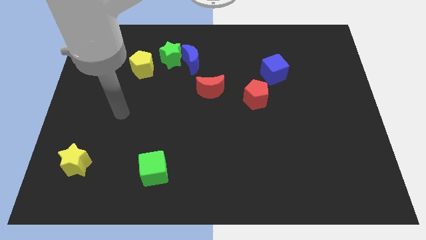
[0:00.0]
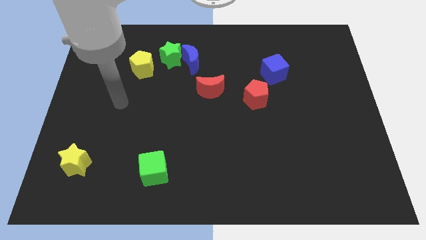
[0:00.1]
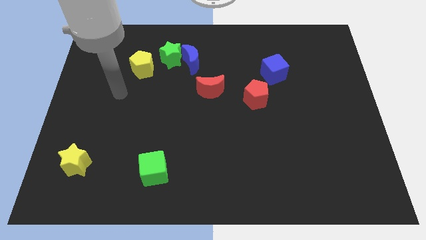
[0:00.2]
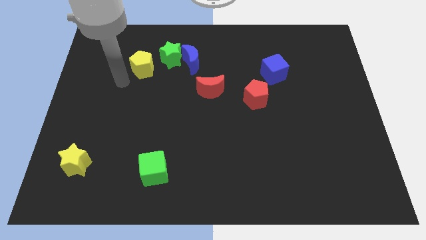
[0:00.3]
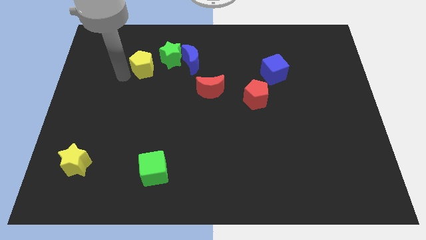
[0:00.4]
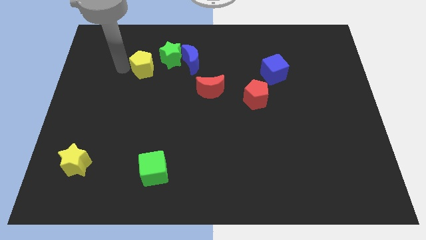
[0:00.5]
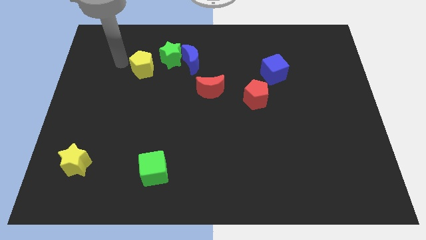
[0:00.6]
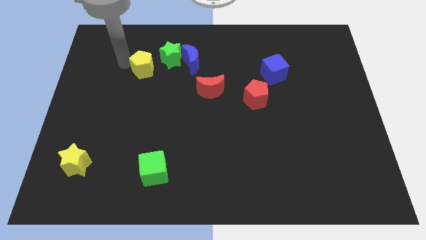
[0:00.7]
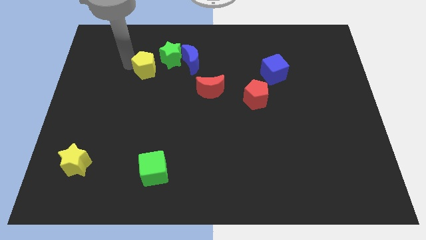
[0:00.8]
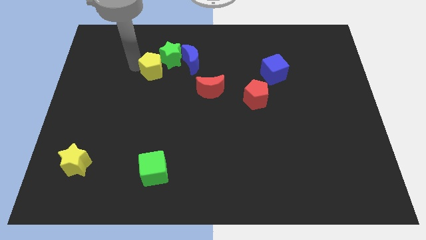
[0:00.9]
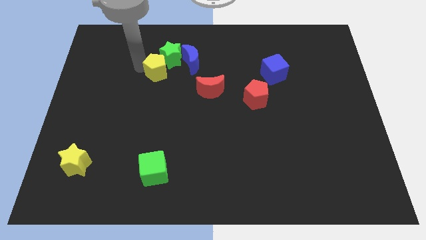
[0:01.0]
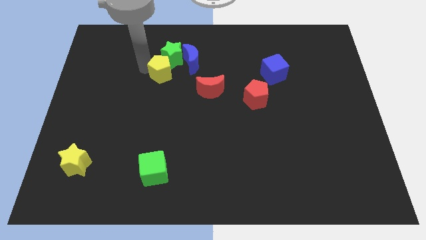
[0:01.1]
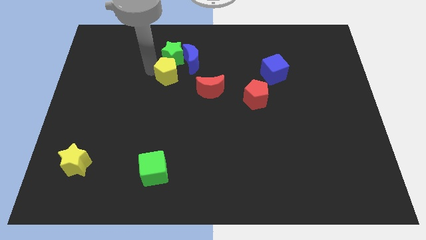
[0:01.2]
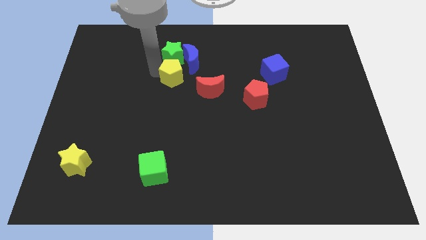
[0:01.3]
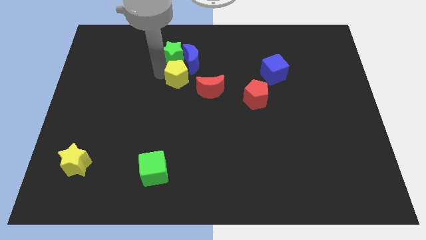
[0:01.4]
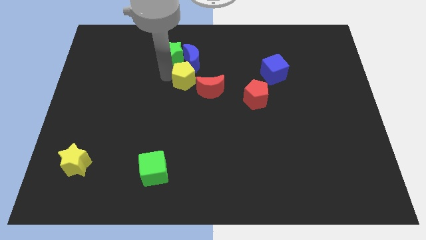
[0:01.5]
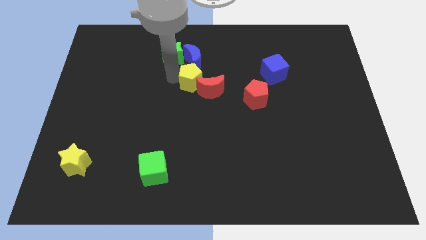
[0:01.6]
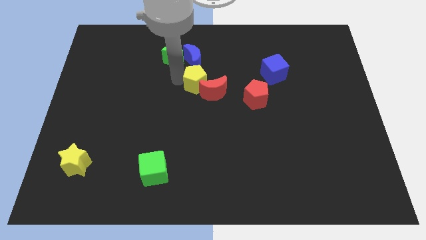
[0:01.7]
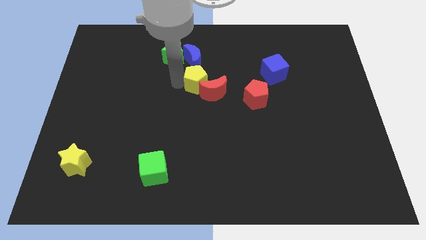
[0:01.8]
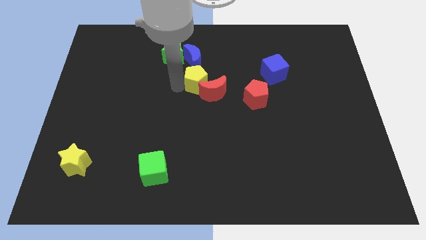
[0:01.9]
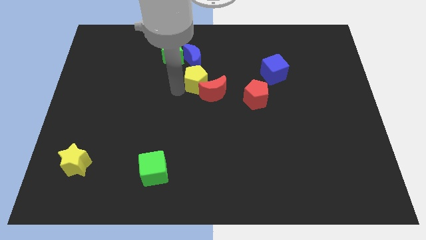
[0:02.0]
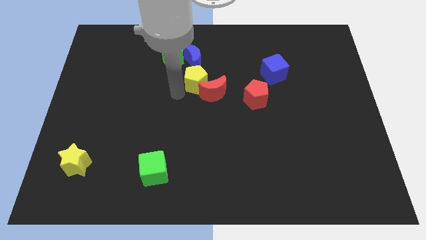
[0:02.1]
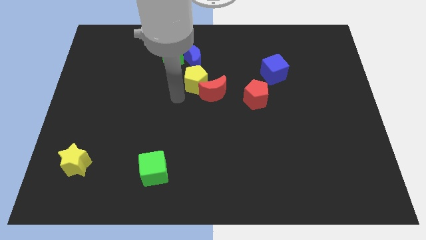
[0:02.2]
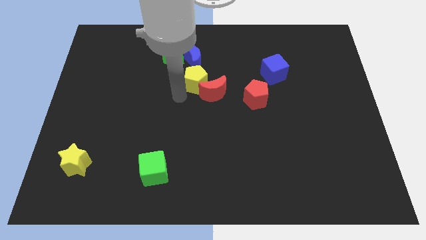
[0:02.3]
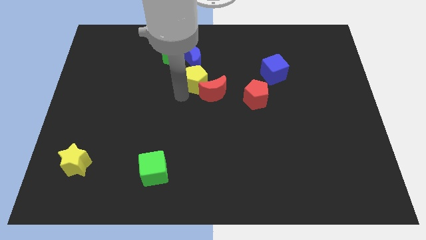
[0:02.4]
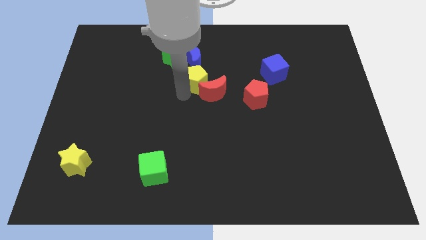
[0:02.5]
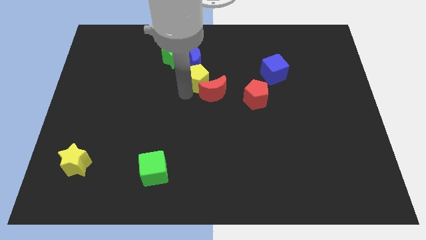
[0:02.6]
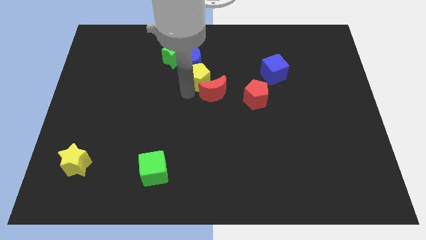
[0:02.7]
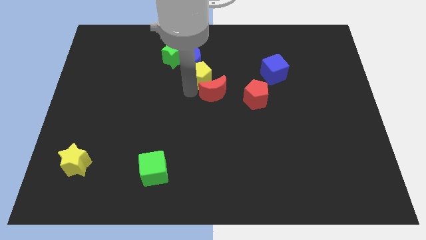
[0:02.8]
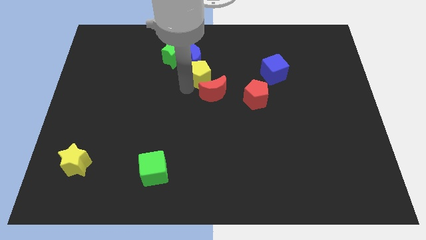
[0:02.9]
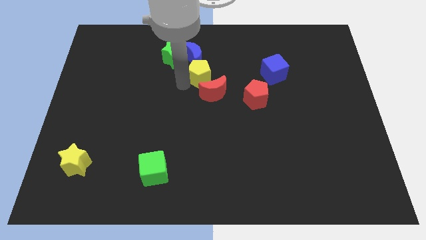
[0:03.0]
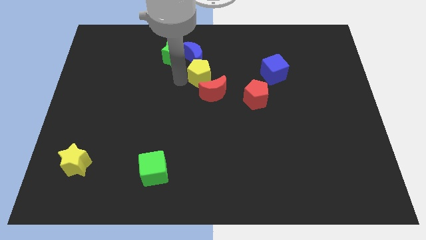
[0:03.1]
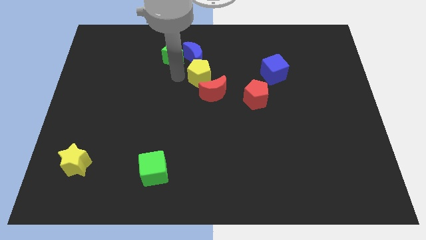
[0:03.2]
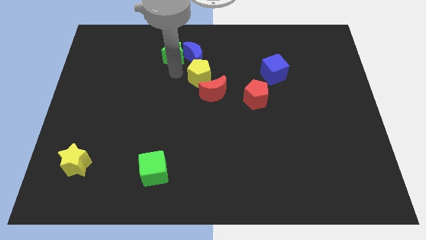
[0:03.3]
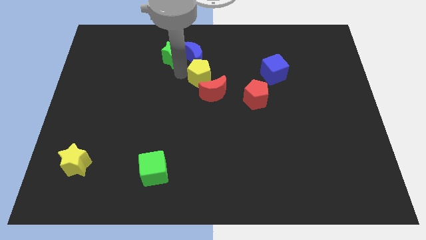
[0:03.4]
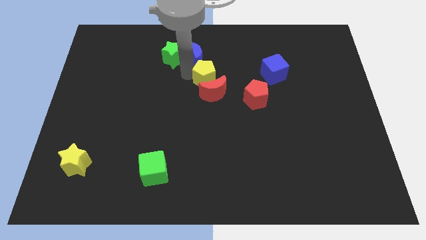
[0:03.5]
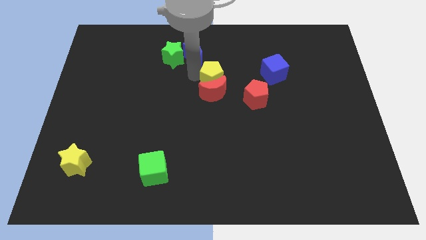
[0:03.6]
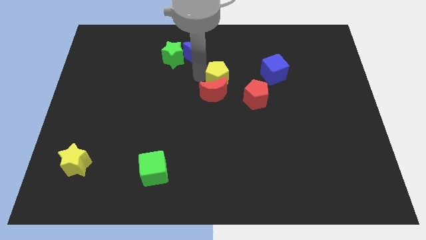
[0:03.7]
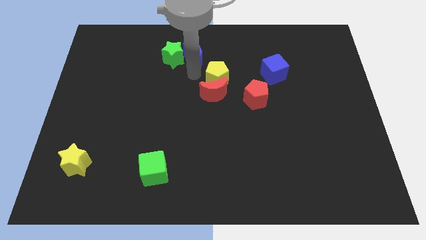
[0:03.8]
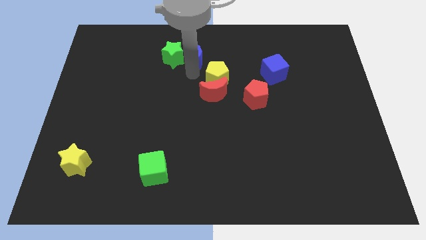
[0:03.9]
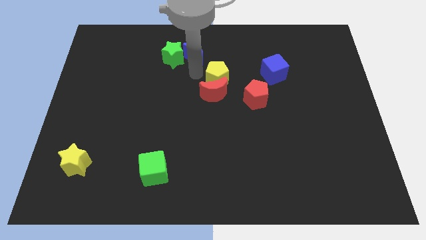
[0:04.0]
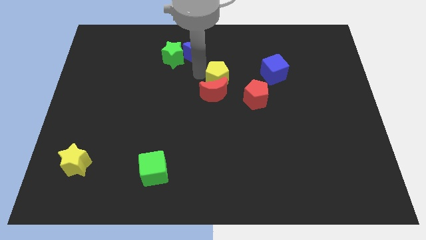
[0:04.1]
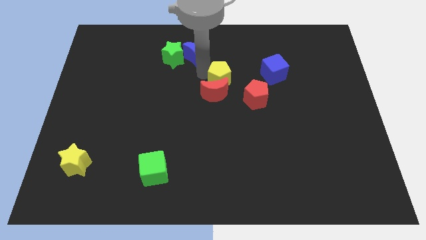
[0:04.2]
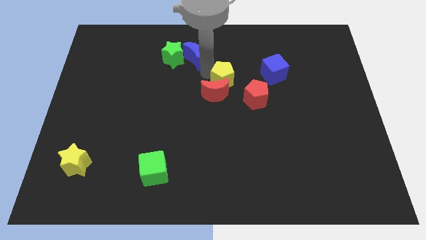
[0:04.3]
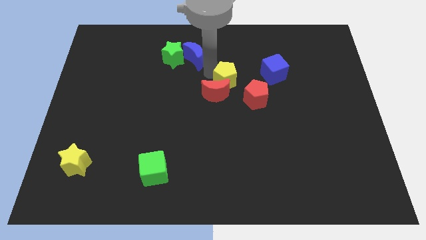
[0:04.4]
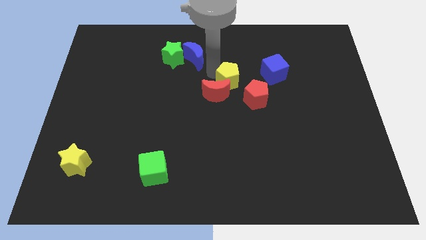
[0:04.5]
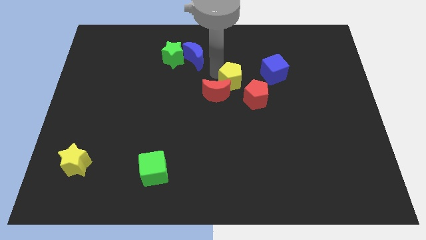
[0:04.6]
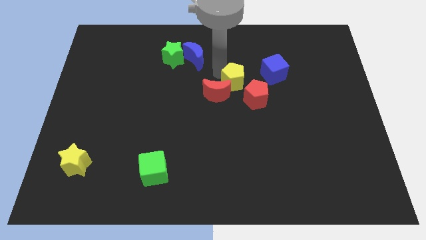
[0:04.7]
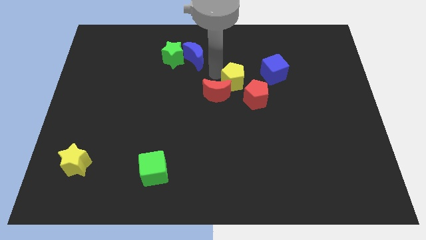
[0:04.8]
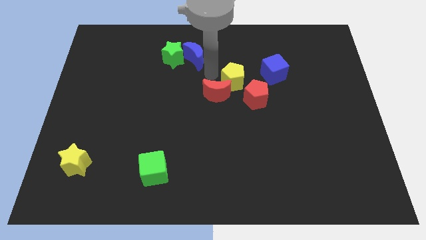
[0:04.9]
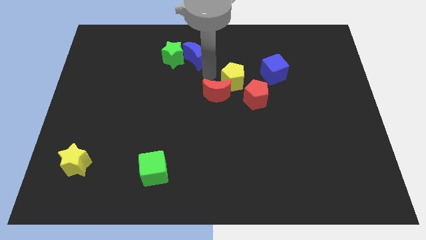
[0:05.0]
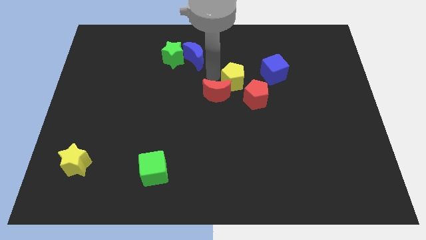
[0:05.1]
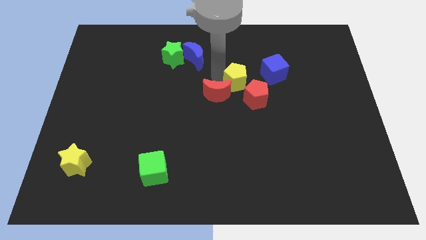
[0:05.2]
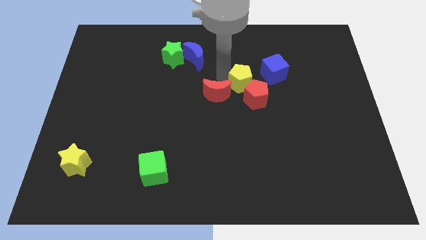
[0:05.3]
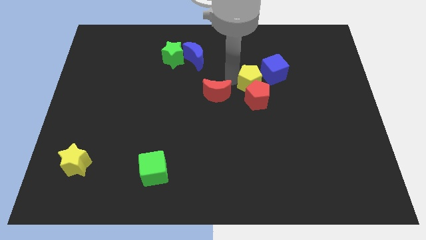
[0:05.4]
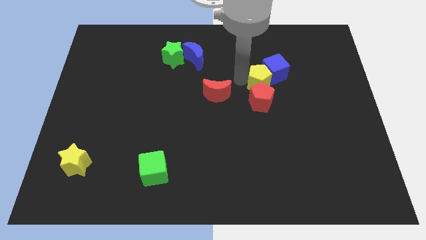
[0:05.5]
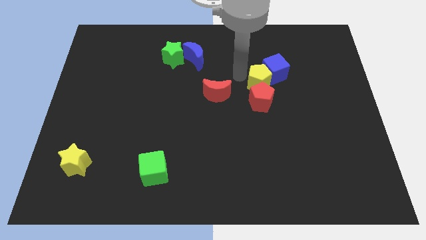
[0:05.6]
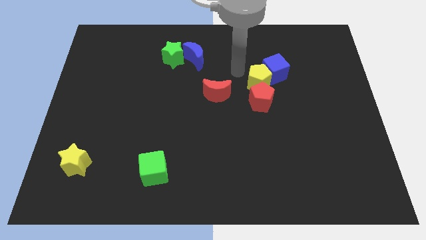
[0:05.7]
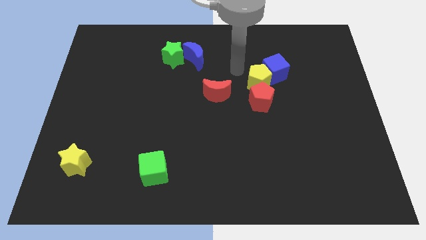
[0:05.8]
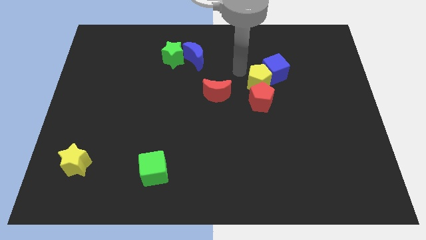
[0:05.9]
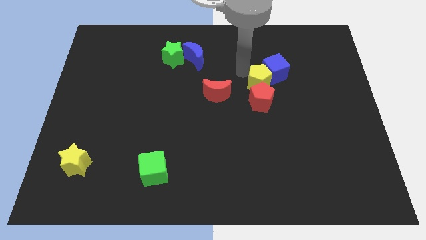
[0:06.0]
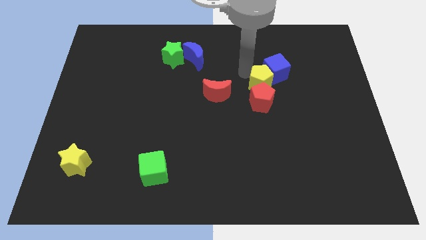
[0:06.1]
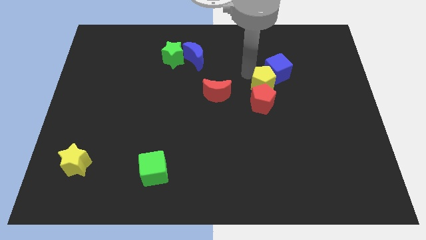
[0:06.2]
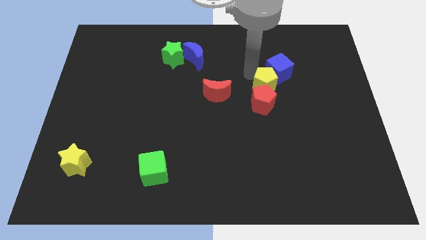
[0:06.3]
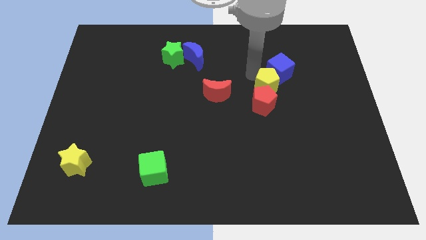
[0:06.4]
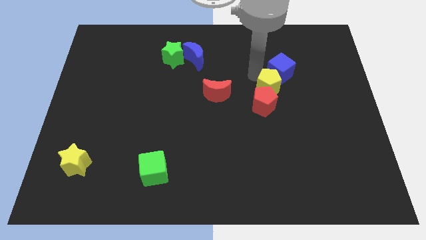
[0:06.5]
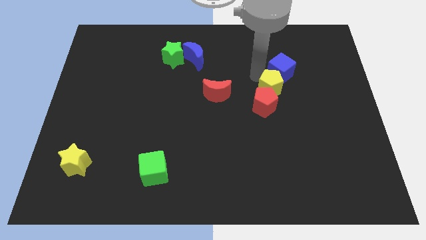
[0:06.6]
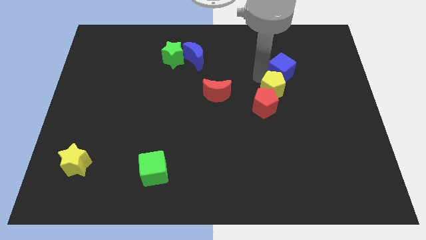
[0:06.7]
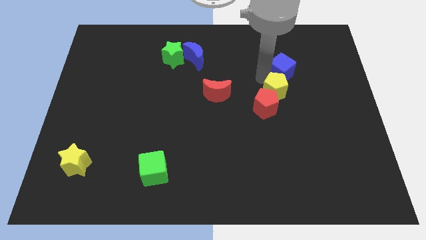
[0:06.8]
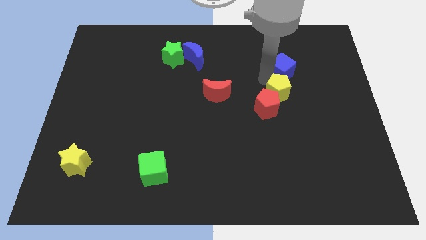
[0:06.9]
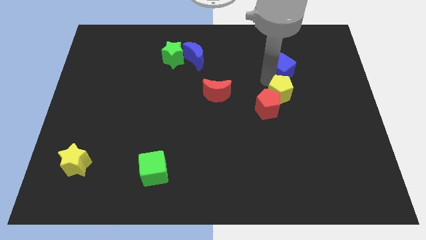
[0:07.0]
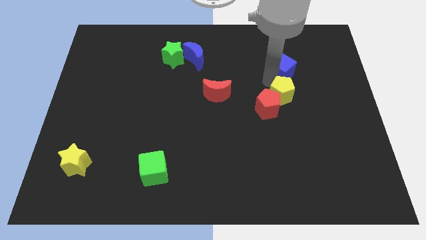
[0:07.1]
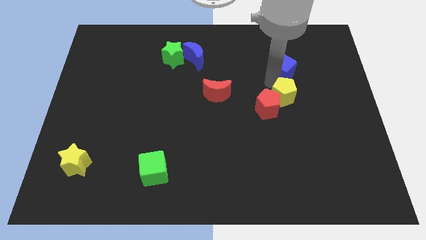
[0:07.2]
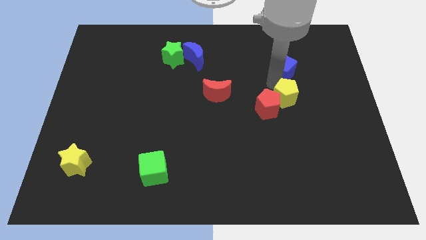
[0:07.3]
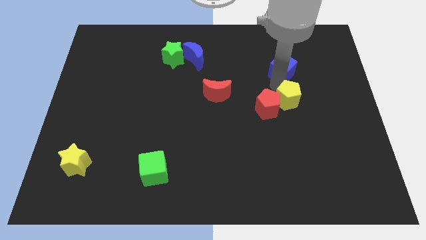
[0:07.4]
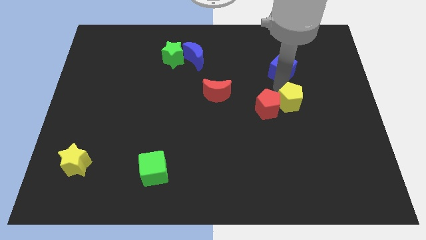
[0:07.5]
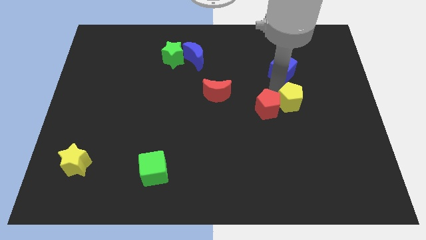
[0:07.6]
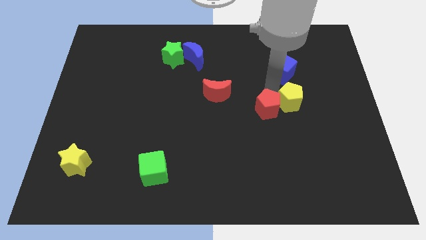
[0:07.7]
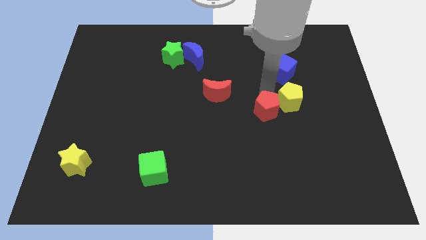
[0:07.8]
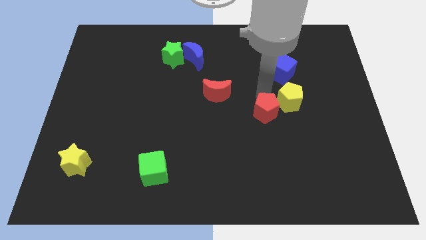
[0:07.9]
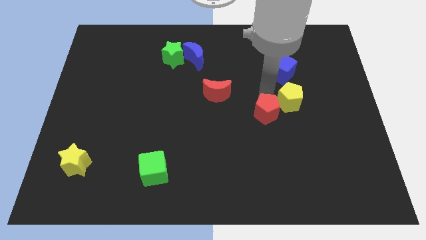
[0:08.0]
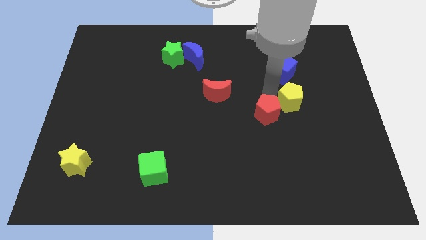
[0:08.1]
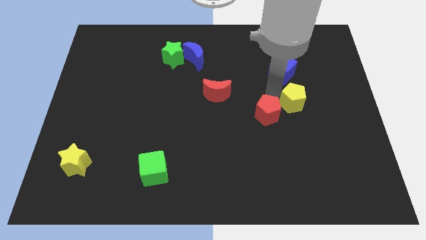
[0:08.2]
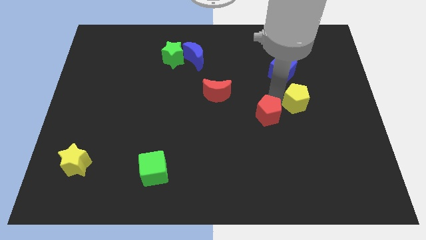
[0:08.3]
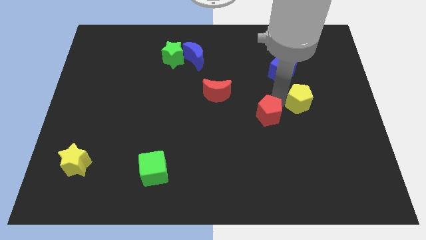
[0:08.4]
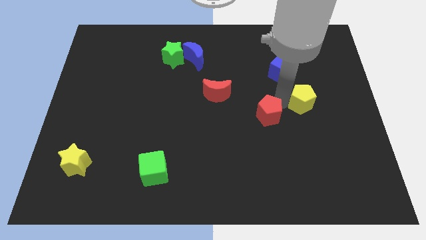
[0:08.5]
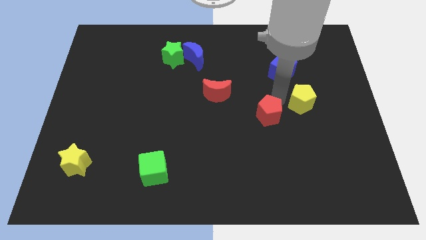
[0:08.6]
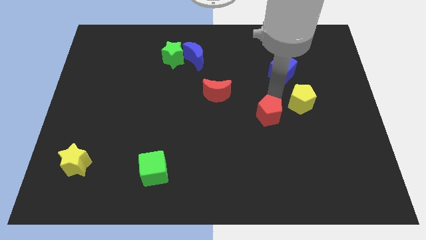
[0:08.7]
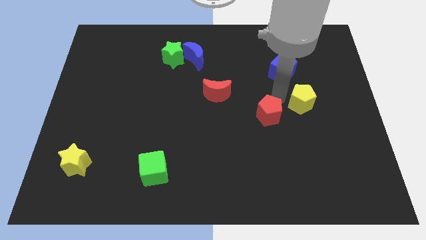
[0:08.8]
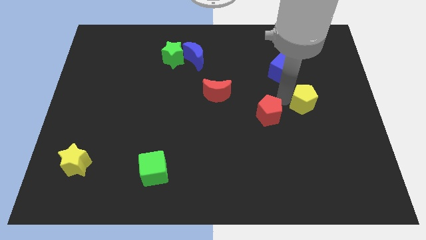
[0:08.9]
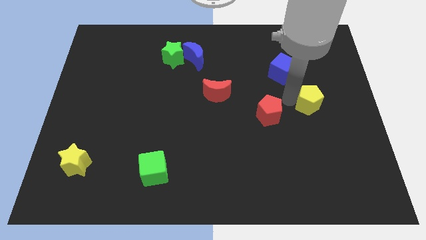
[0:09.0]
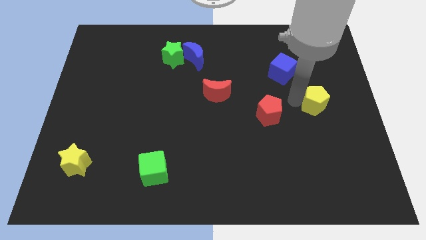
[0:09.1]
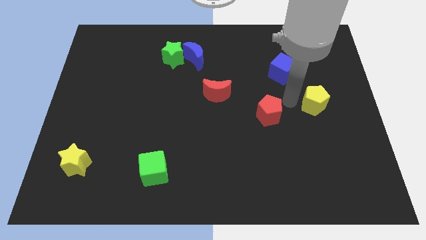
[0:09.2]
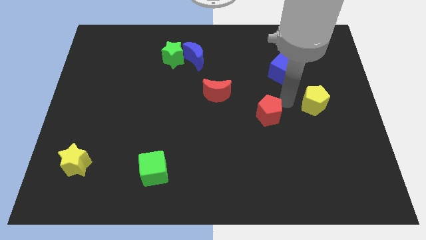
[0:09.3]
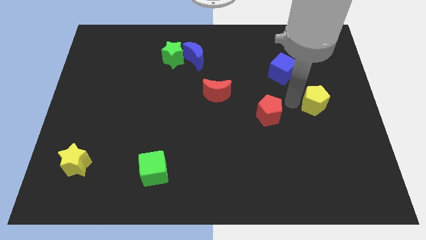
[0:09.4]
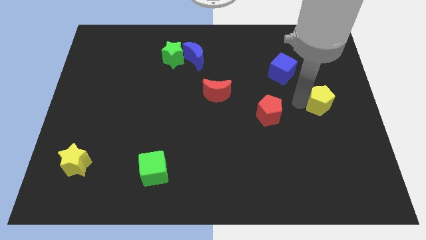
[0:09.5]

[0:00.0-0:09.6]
slide the yellow pentagon to the right side of the board
